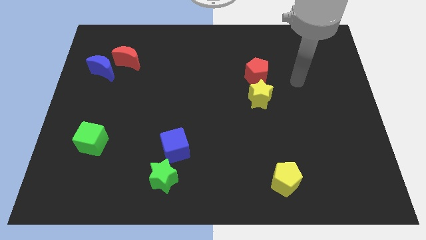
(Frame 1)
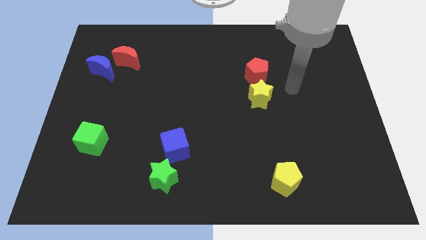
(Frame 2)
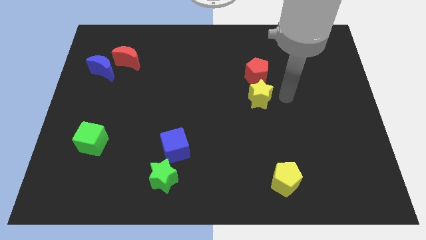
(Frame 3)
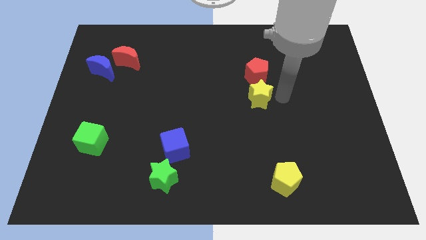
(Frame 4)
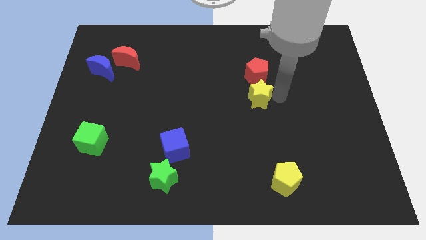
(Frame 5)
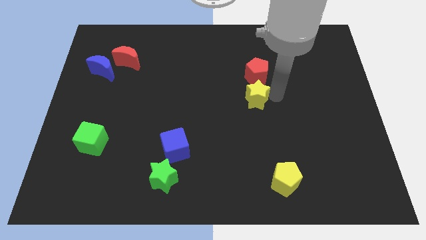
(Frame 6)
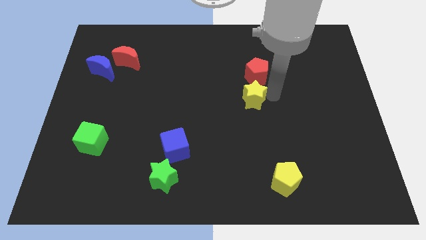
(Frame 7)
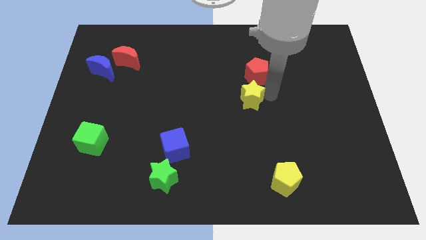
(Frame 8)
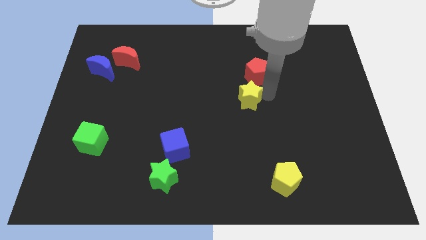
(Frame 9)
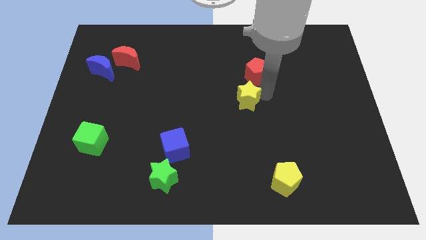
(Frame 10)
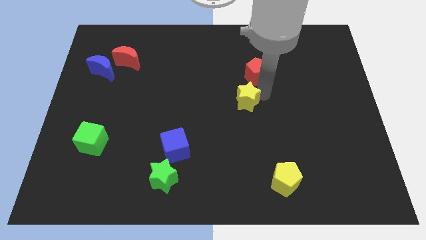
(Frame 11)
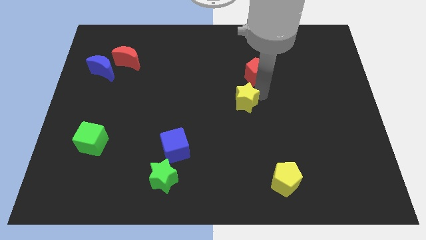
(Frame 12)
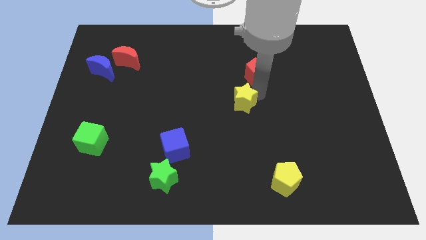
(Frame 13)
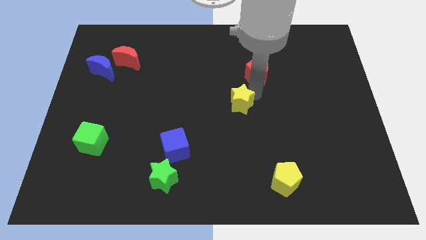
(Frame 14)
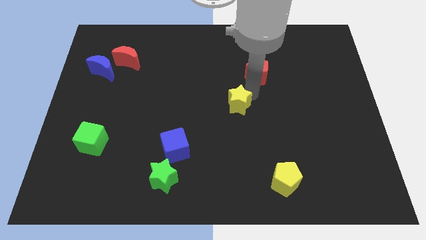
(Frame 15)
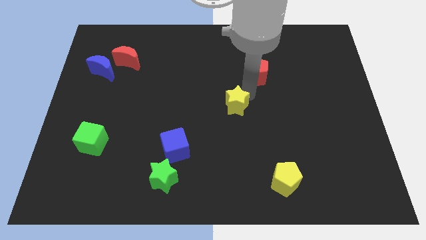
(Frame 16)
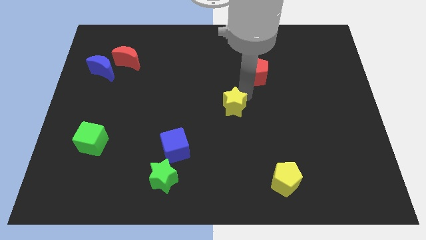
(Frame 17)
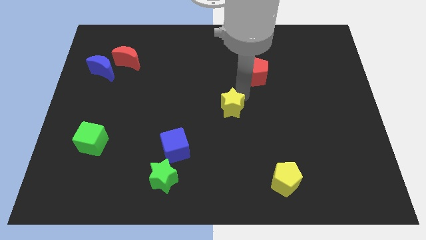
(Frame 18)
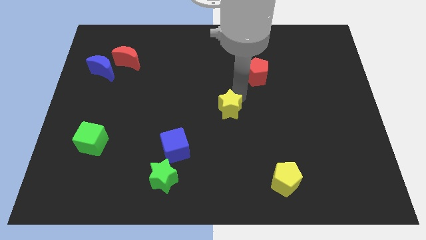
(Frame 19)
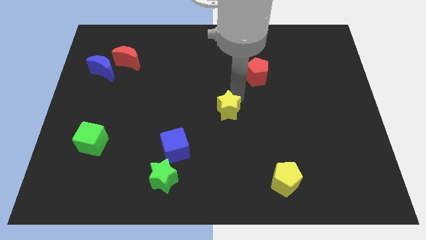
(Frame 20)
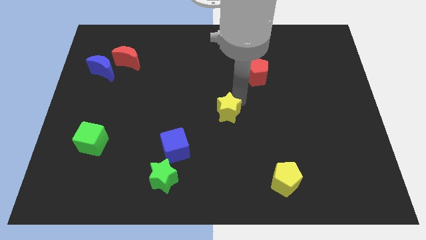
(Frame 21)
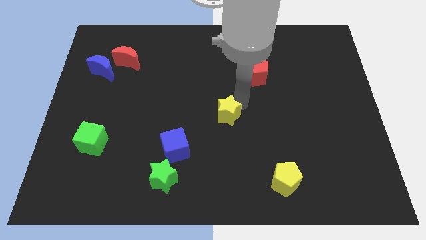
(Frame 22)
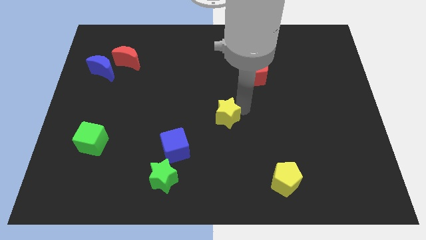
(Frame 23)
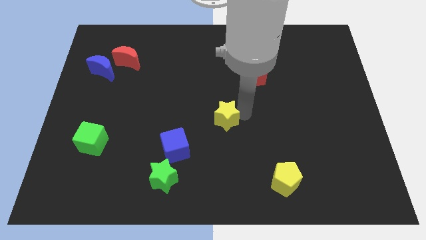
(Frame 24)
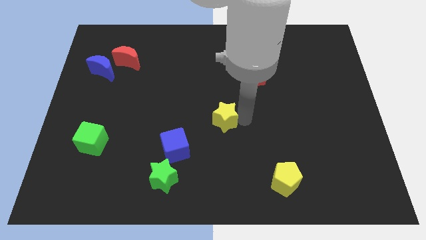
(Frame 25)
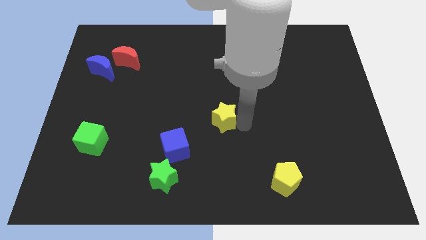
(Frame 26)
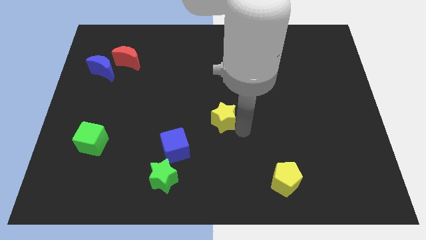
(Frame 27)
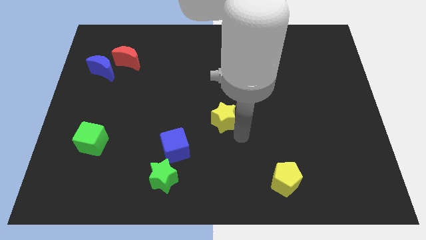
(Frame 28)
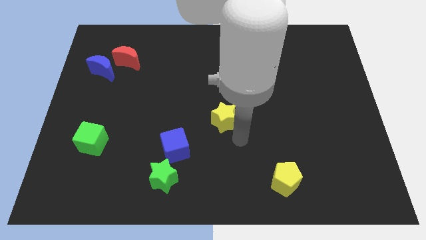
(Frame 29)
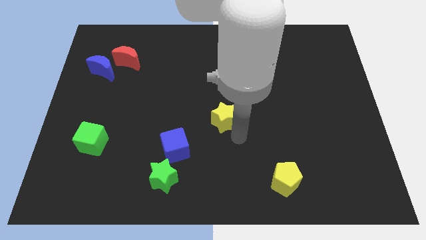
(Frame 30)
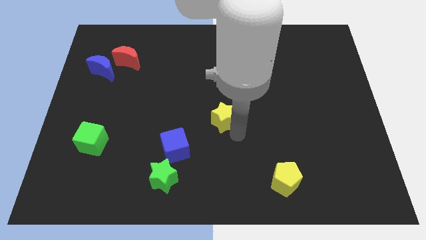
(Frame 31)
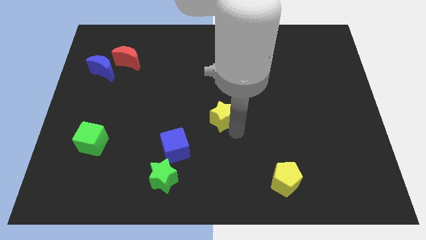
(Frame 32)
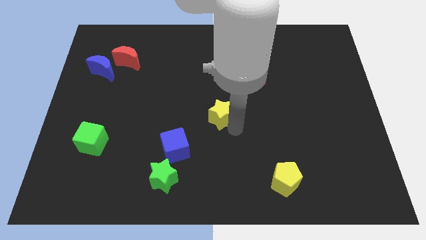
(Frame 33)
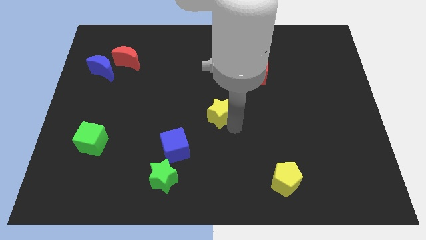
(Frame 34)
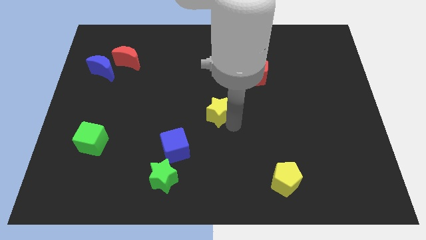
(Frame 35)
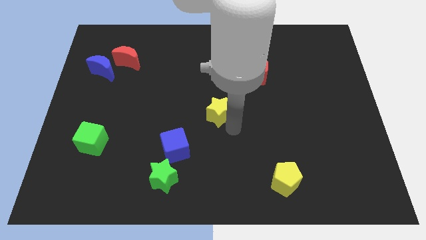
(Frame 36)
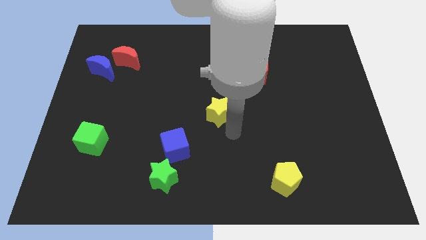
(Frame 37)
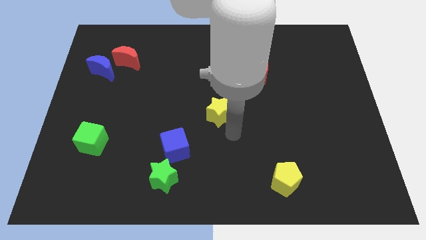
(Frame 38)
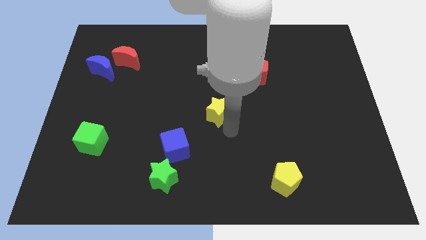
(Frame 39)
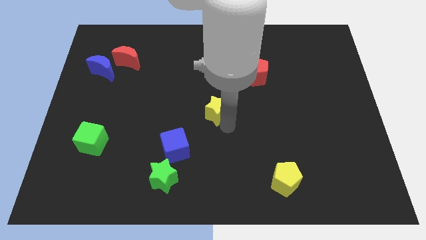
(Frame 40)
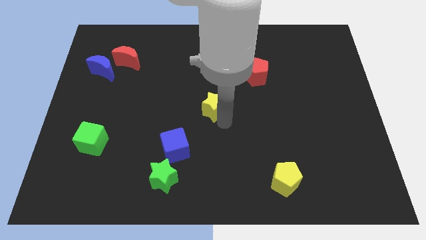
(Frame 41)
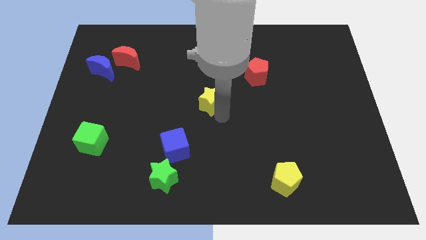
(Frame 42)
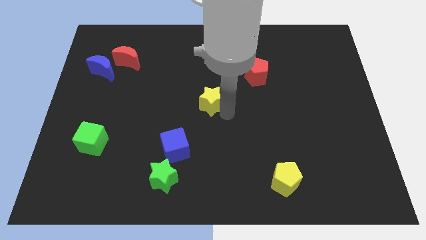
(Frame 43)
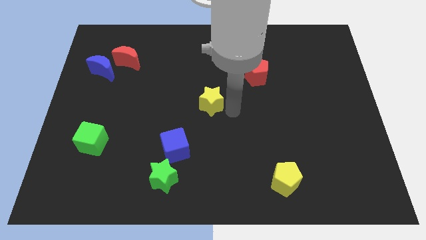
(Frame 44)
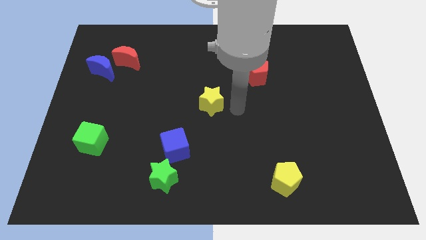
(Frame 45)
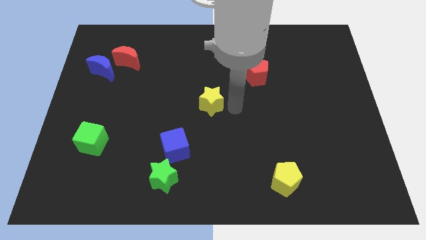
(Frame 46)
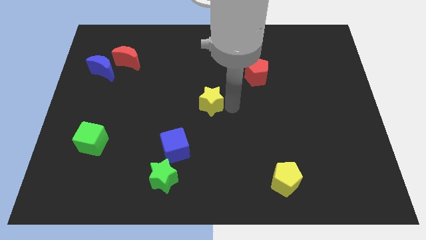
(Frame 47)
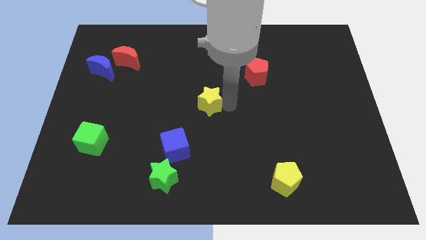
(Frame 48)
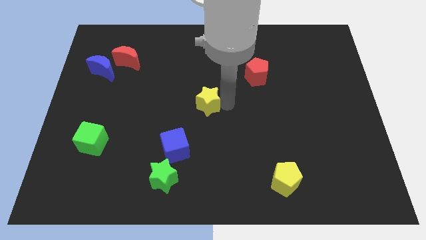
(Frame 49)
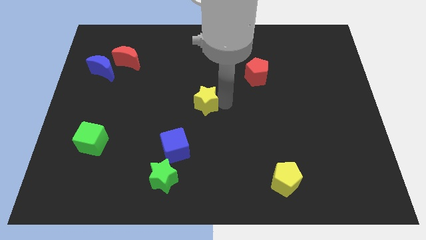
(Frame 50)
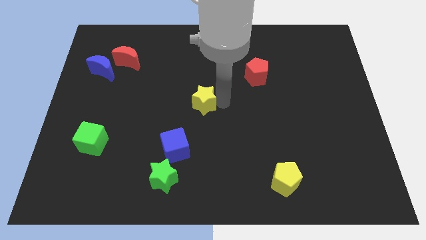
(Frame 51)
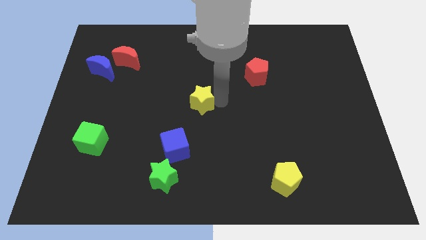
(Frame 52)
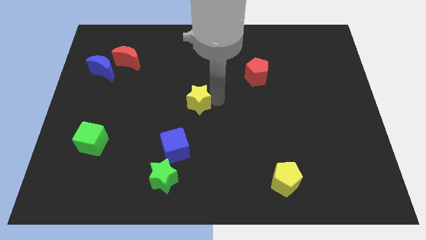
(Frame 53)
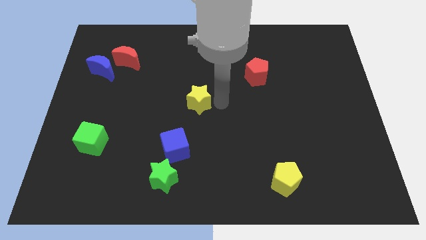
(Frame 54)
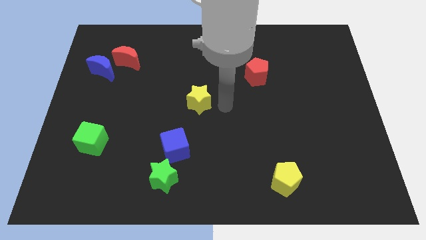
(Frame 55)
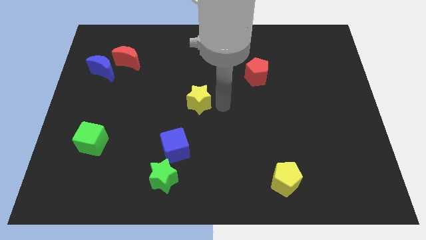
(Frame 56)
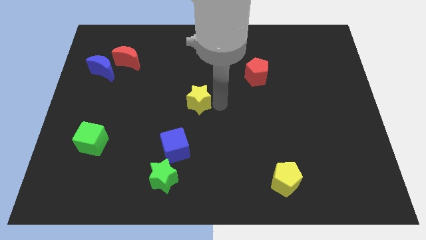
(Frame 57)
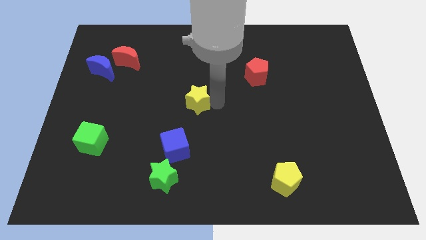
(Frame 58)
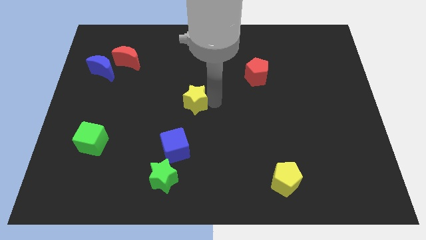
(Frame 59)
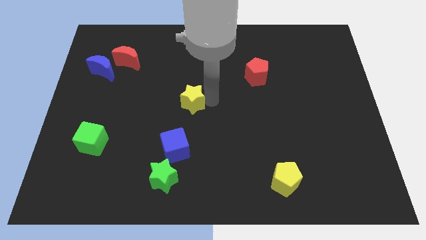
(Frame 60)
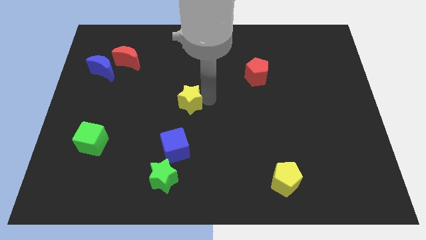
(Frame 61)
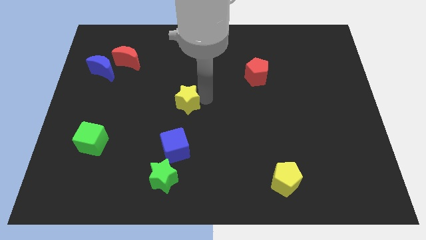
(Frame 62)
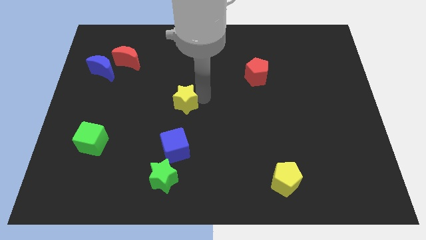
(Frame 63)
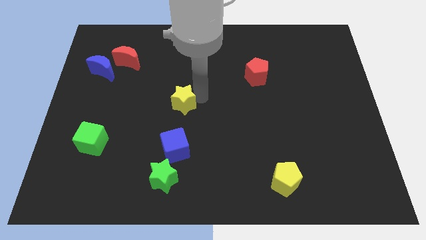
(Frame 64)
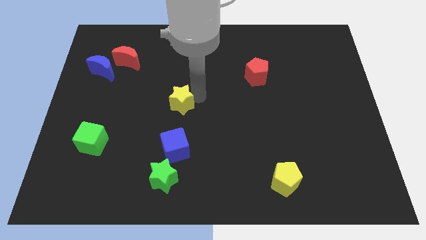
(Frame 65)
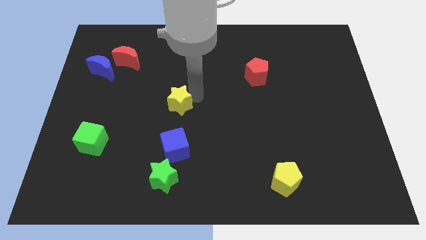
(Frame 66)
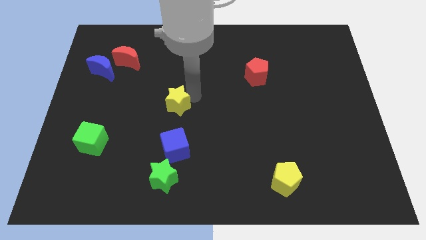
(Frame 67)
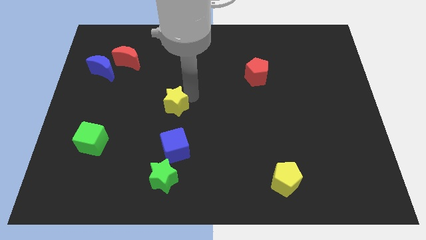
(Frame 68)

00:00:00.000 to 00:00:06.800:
move the yellow star to the left

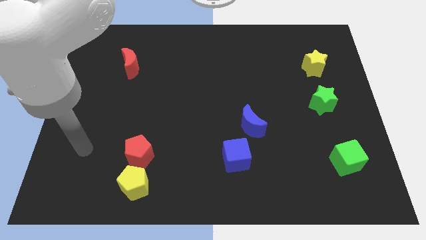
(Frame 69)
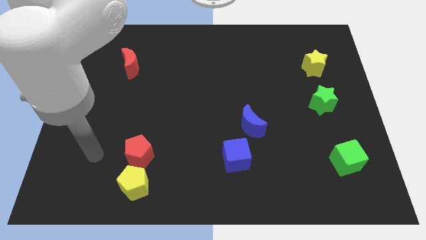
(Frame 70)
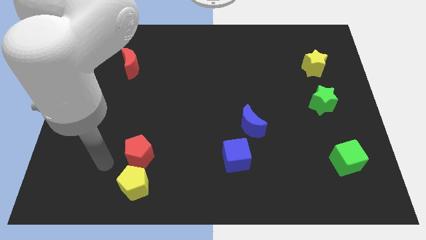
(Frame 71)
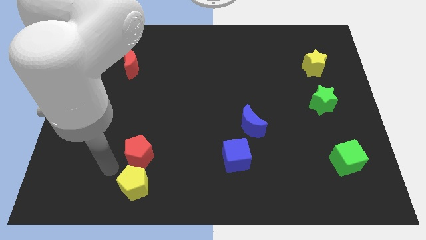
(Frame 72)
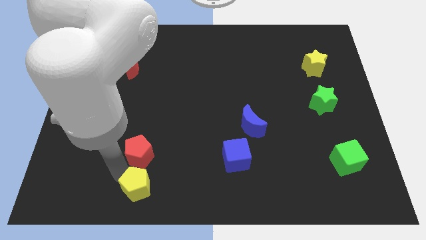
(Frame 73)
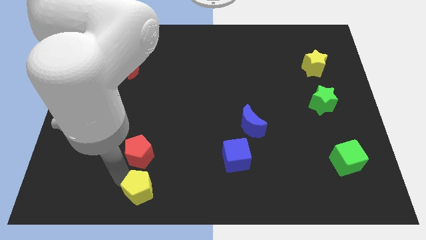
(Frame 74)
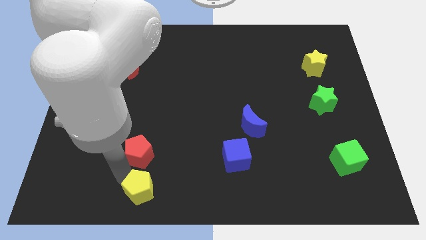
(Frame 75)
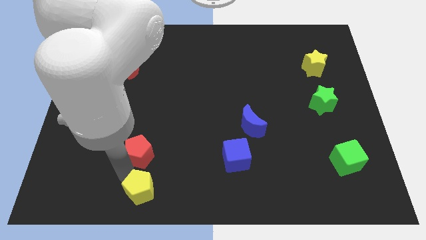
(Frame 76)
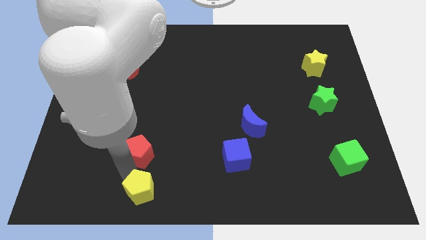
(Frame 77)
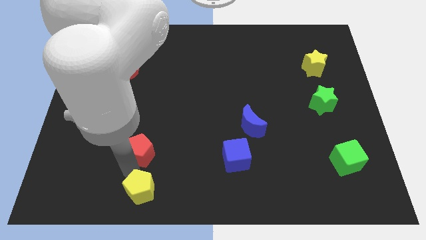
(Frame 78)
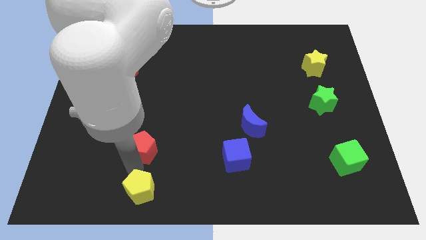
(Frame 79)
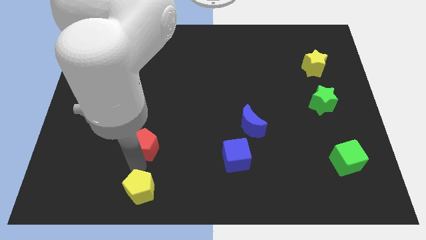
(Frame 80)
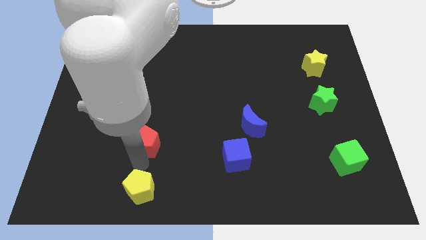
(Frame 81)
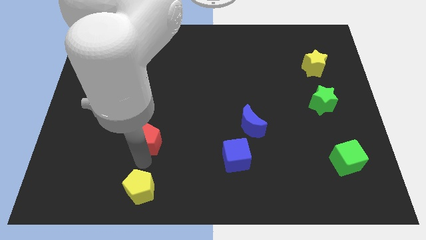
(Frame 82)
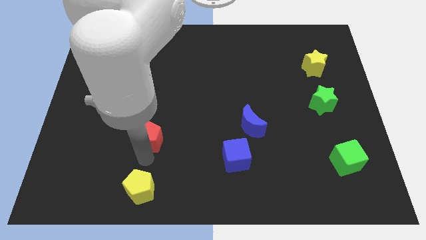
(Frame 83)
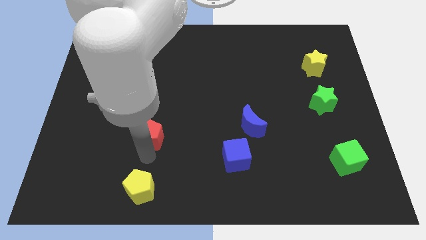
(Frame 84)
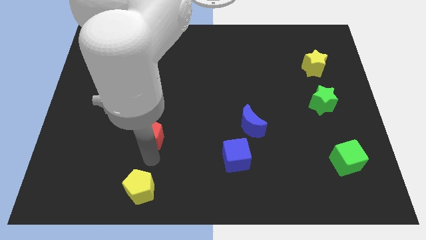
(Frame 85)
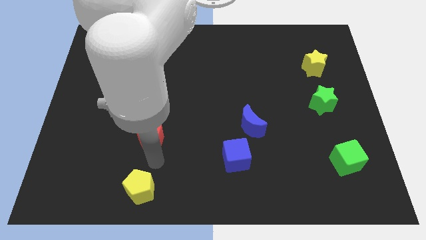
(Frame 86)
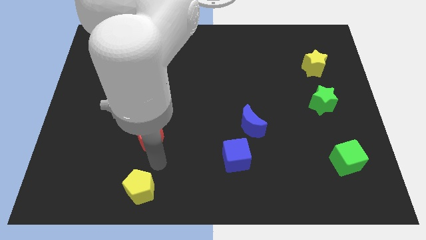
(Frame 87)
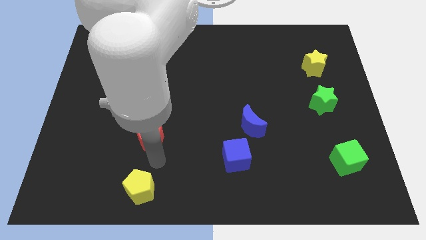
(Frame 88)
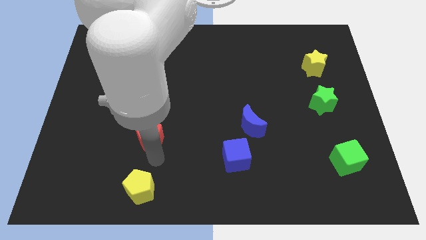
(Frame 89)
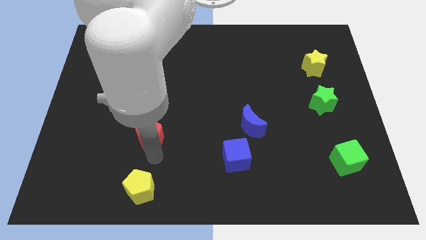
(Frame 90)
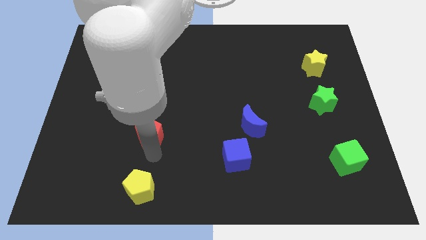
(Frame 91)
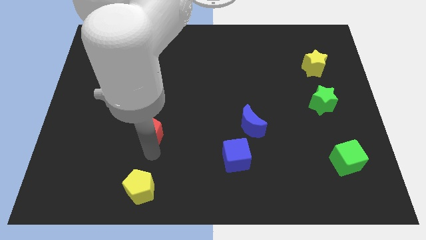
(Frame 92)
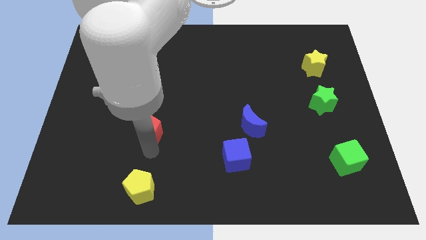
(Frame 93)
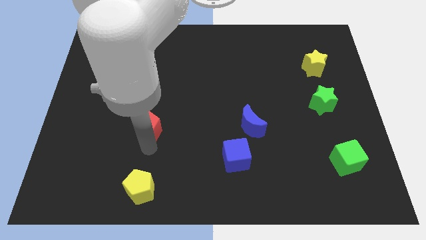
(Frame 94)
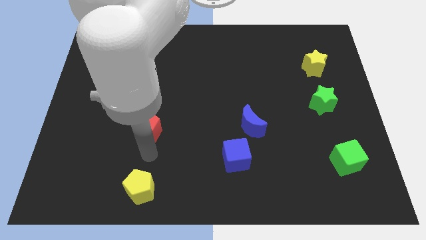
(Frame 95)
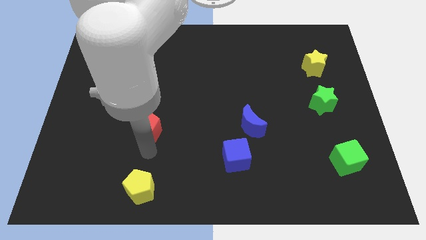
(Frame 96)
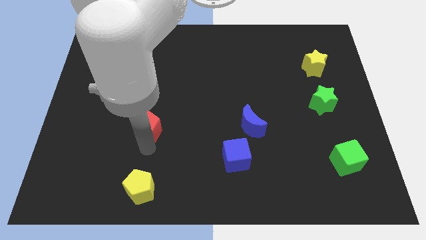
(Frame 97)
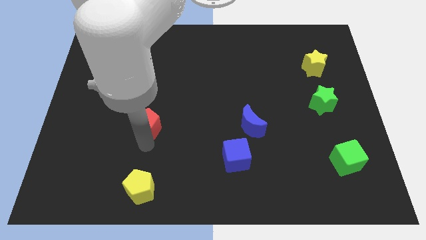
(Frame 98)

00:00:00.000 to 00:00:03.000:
slide the red pentagon upwards a little bit
